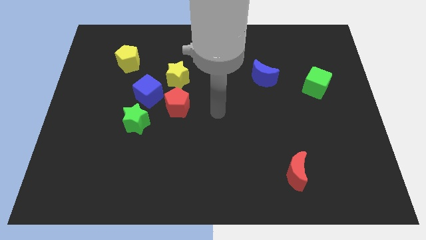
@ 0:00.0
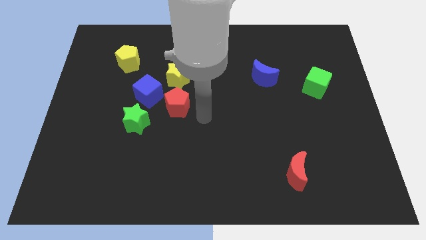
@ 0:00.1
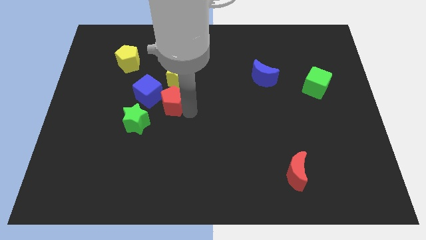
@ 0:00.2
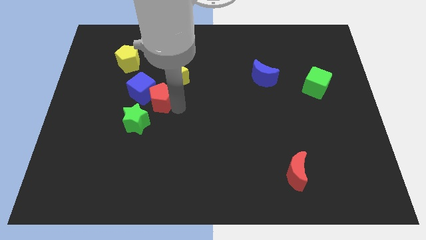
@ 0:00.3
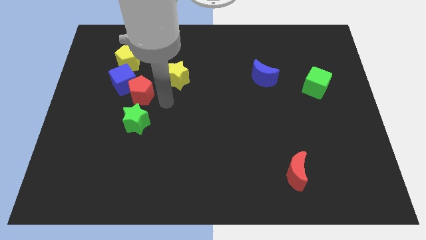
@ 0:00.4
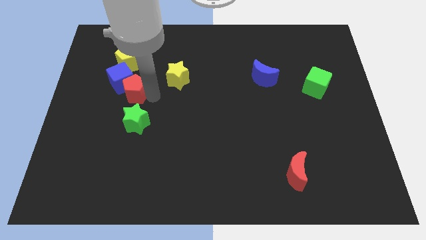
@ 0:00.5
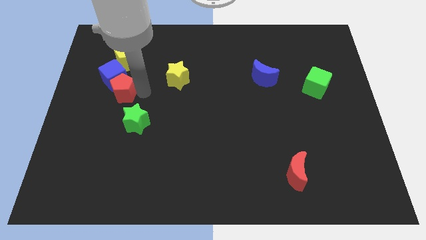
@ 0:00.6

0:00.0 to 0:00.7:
separate the blue cube from the clump

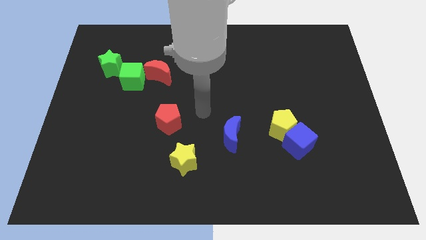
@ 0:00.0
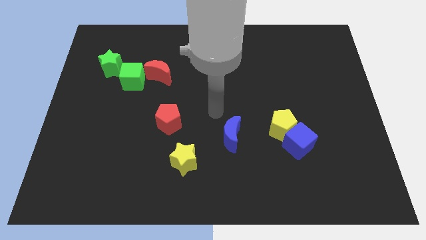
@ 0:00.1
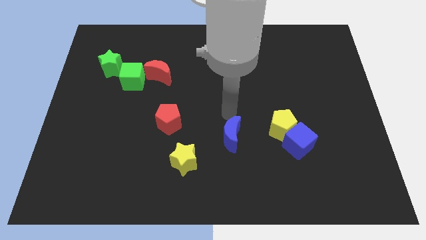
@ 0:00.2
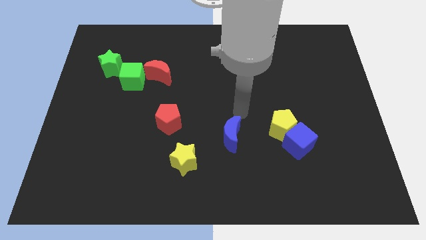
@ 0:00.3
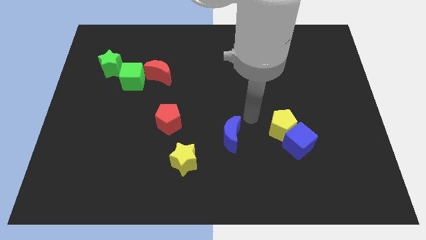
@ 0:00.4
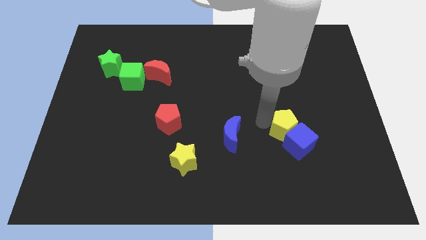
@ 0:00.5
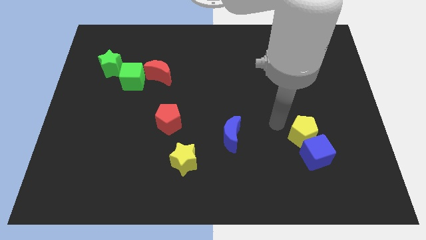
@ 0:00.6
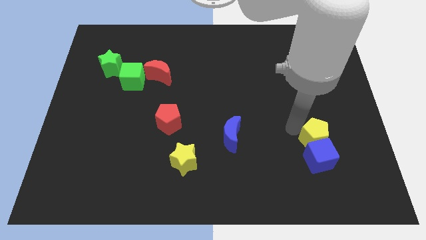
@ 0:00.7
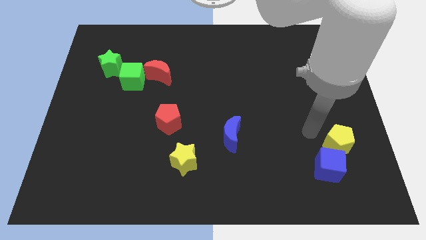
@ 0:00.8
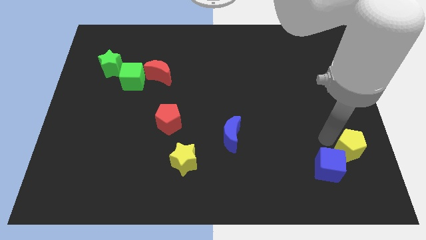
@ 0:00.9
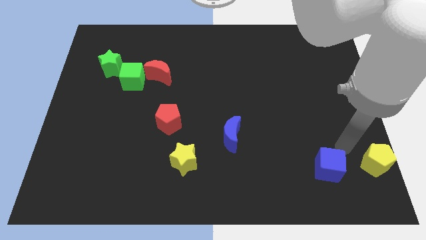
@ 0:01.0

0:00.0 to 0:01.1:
move the blue cube away from the yellow pentagon

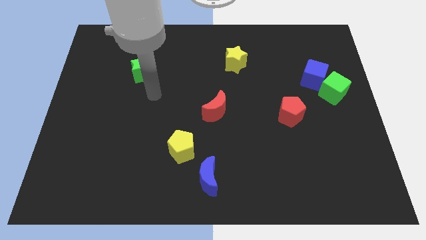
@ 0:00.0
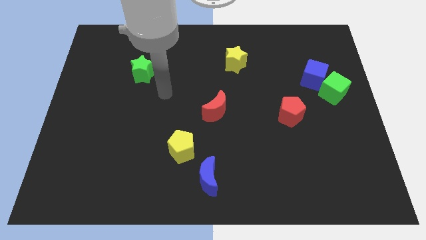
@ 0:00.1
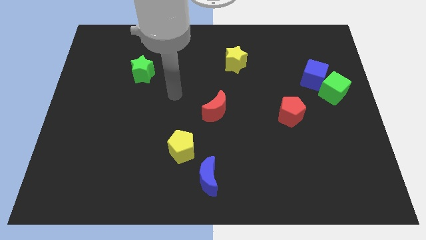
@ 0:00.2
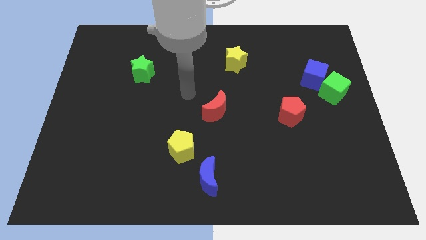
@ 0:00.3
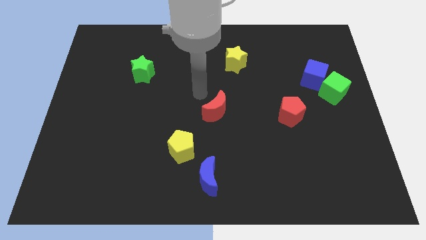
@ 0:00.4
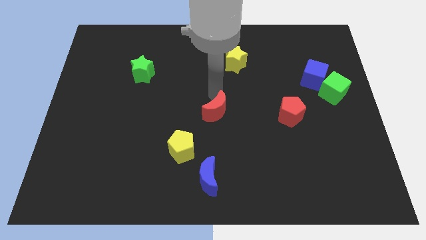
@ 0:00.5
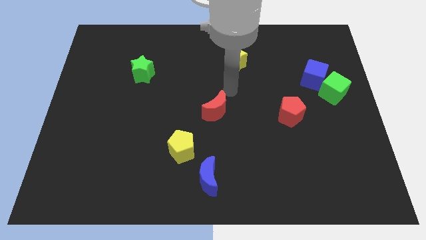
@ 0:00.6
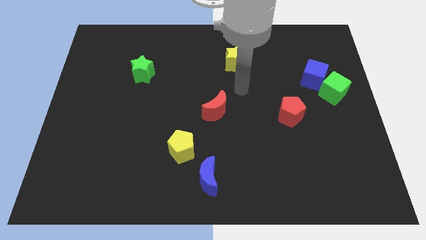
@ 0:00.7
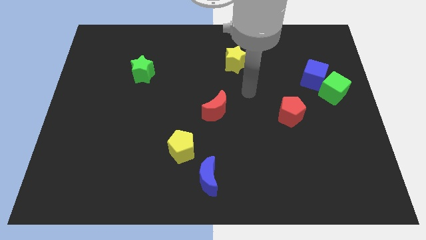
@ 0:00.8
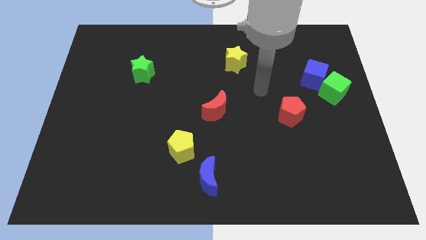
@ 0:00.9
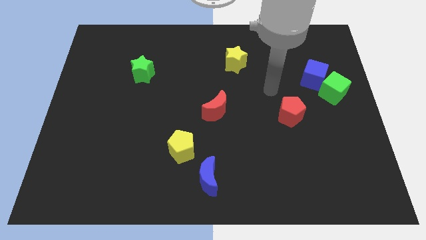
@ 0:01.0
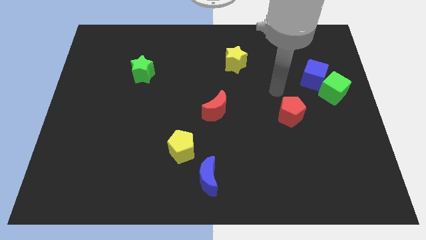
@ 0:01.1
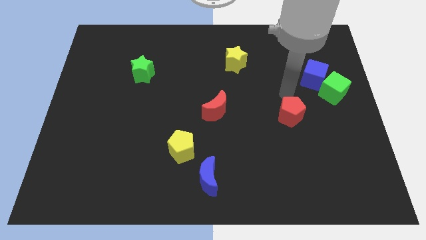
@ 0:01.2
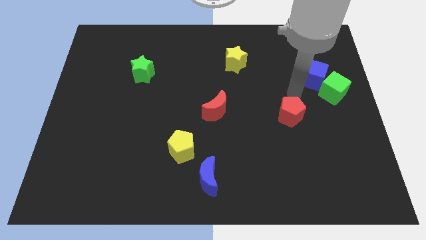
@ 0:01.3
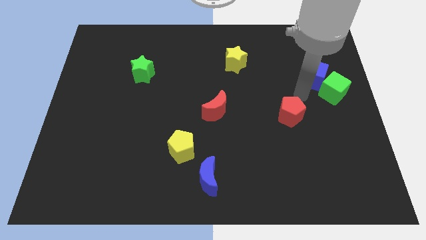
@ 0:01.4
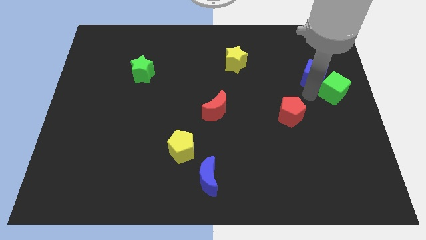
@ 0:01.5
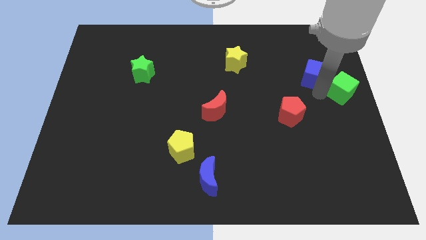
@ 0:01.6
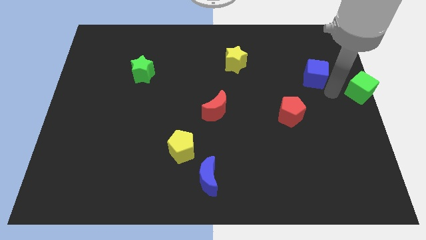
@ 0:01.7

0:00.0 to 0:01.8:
move the blue cube away from the green cube

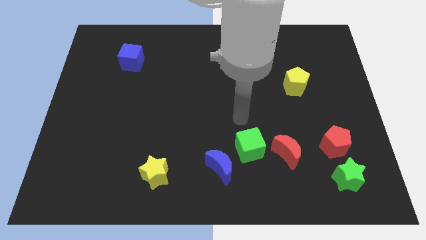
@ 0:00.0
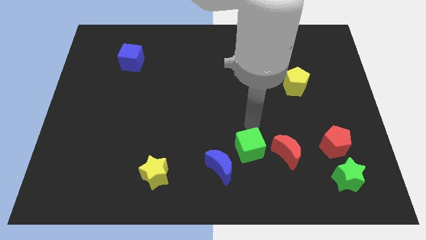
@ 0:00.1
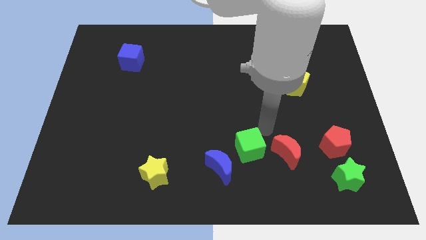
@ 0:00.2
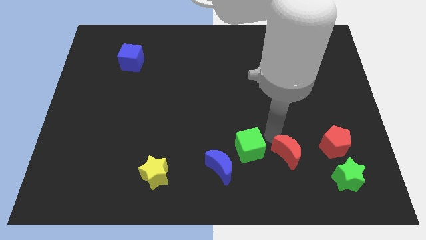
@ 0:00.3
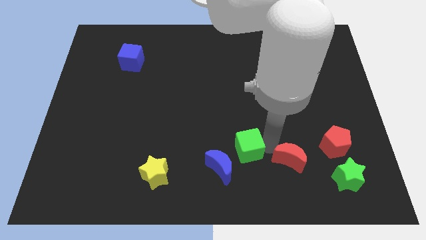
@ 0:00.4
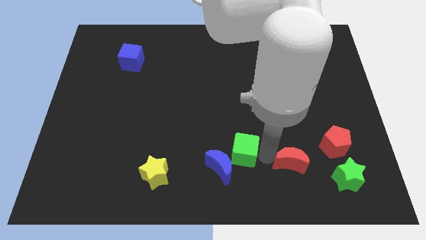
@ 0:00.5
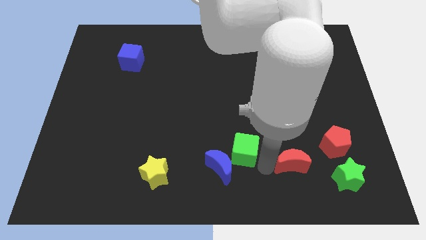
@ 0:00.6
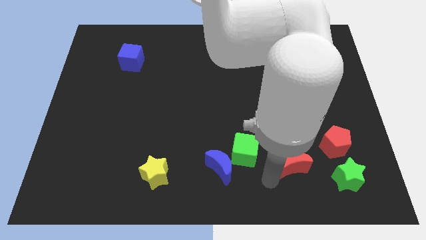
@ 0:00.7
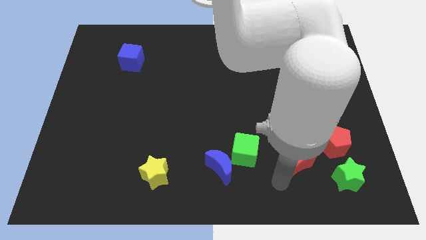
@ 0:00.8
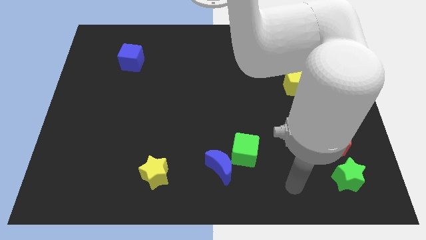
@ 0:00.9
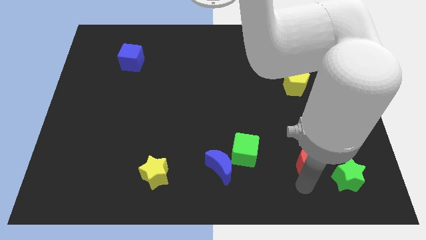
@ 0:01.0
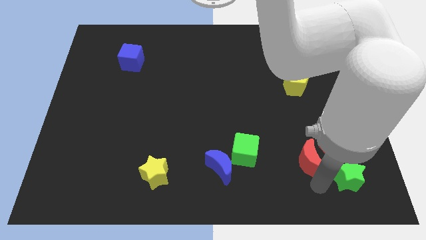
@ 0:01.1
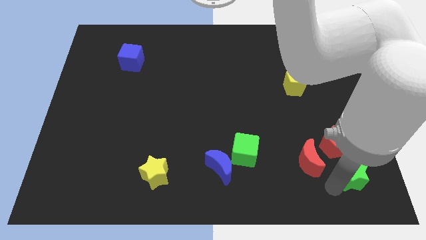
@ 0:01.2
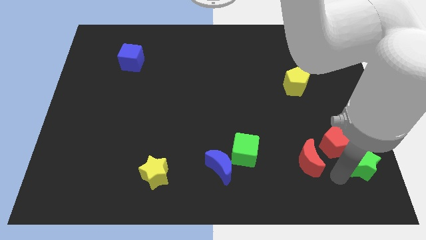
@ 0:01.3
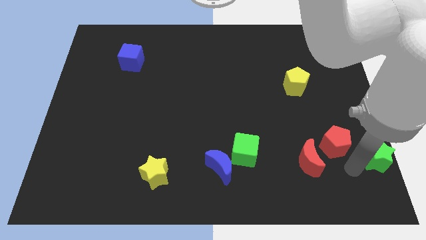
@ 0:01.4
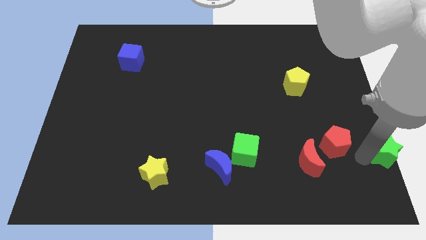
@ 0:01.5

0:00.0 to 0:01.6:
move the red pentagon away from the green star

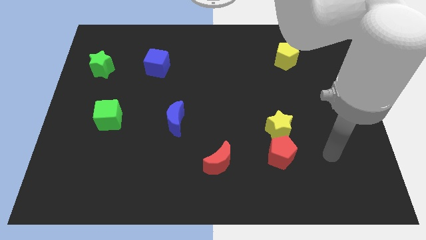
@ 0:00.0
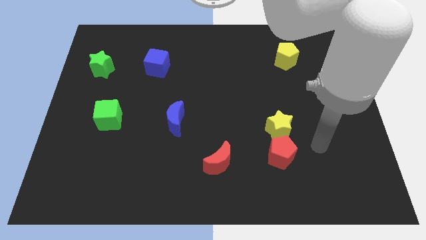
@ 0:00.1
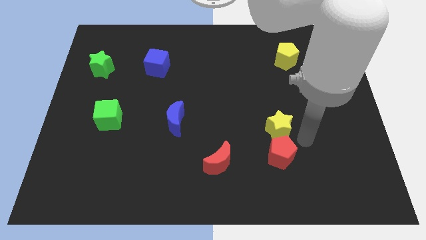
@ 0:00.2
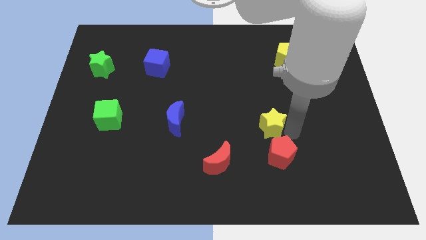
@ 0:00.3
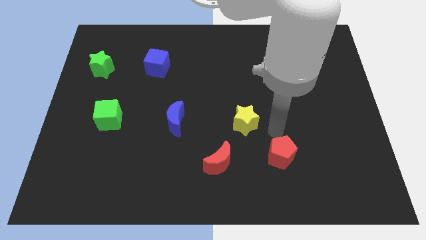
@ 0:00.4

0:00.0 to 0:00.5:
separate the red pentagon from the yellow star

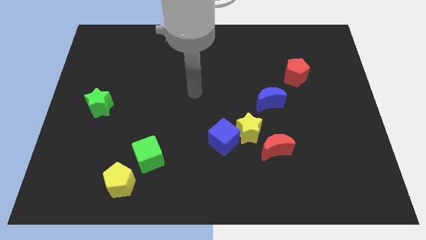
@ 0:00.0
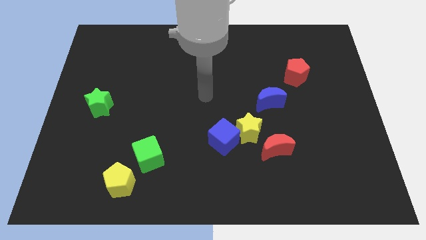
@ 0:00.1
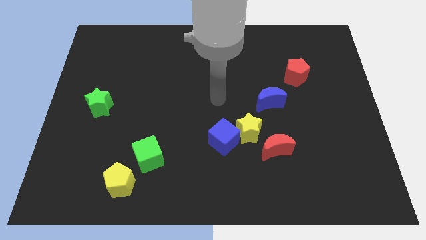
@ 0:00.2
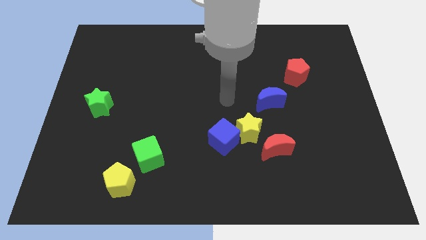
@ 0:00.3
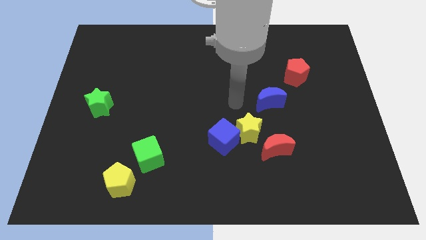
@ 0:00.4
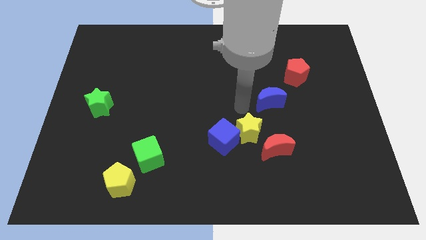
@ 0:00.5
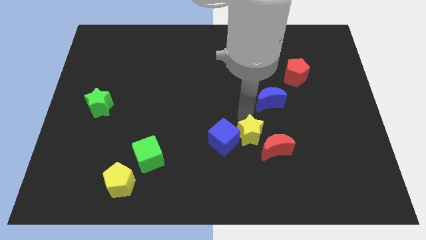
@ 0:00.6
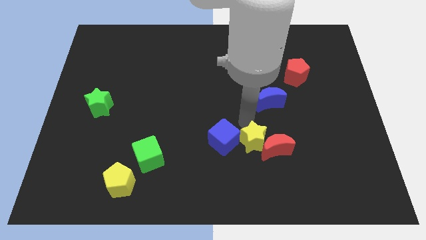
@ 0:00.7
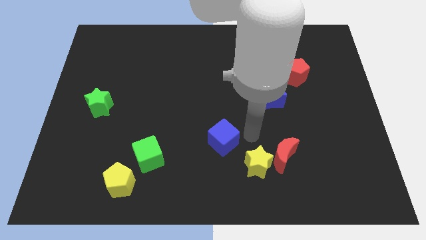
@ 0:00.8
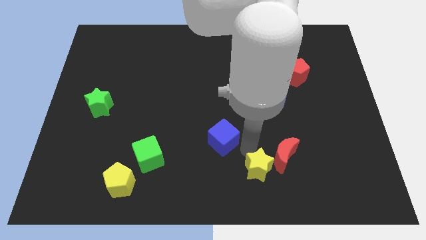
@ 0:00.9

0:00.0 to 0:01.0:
pull the blue cube apart from the yellow star

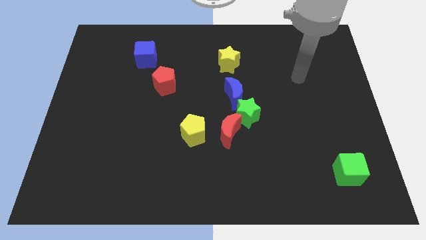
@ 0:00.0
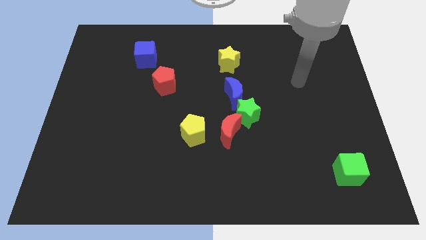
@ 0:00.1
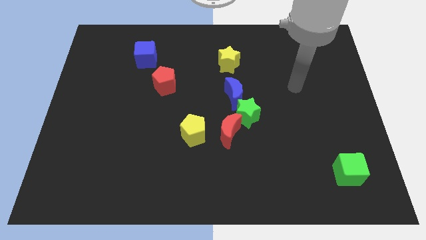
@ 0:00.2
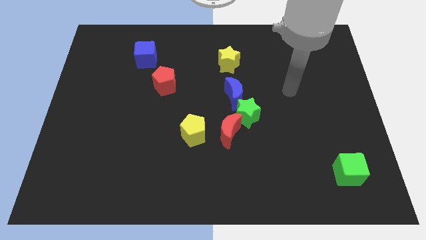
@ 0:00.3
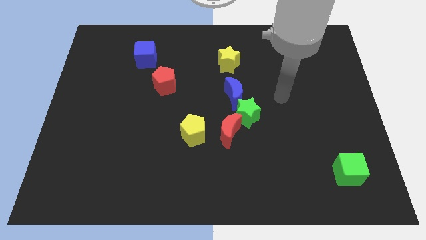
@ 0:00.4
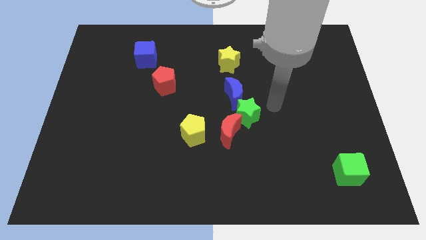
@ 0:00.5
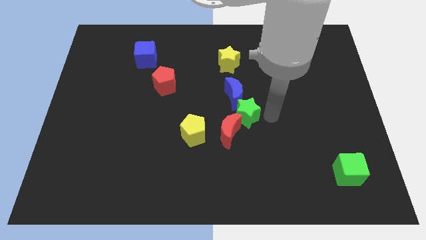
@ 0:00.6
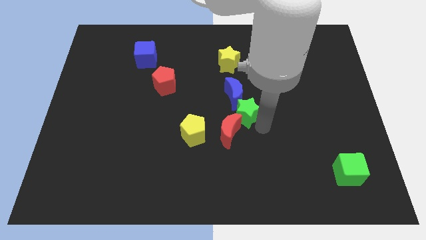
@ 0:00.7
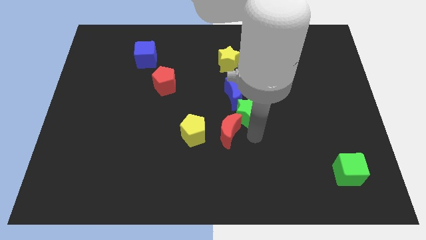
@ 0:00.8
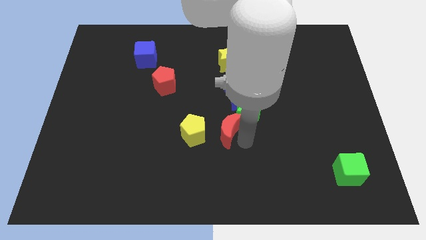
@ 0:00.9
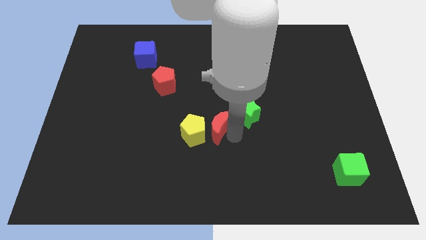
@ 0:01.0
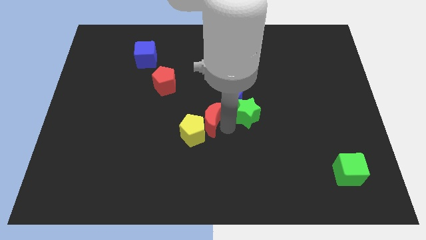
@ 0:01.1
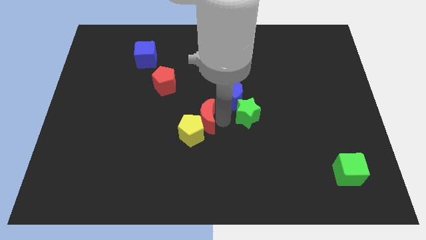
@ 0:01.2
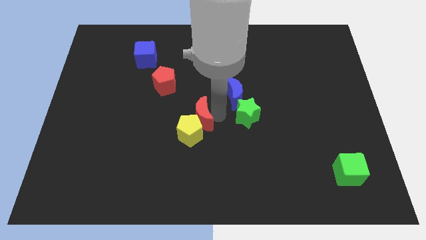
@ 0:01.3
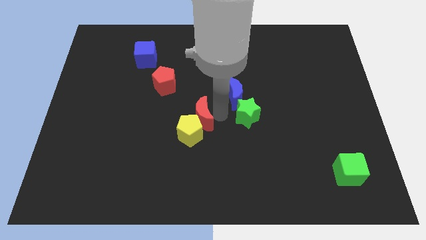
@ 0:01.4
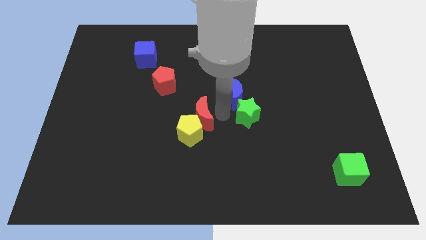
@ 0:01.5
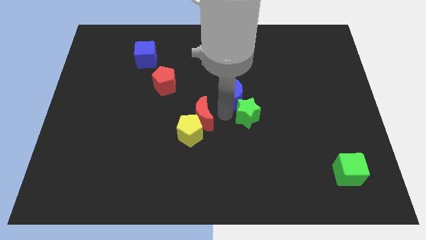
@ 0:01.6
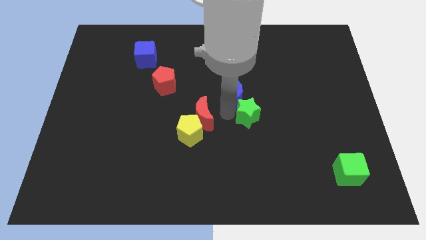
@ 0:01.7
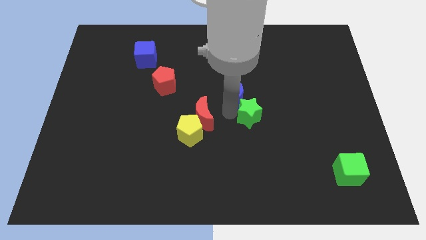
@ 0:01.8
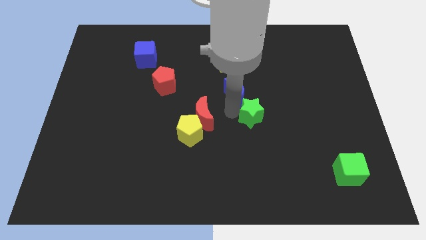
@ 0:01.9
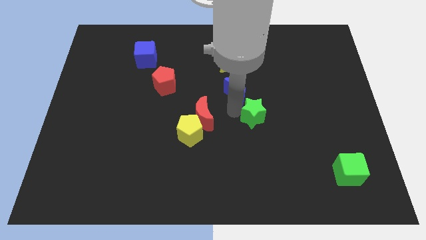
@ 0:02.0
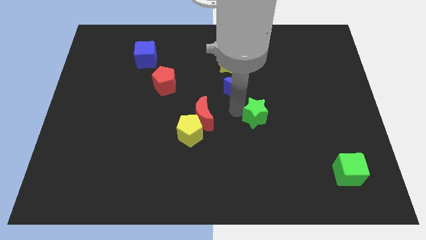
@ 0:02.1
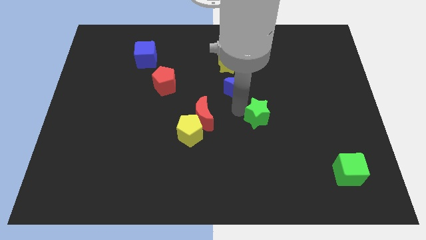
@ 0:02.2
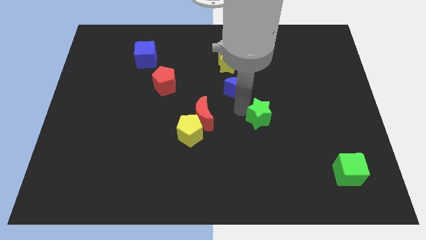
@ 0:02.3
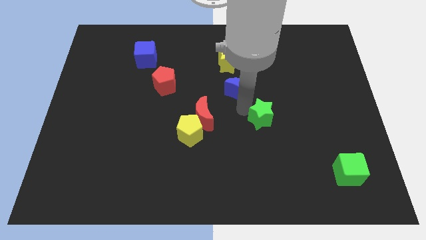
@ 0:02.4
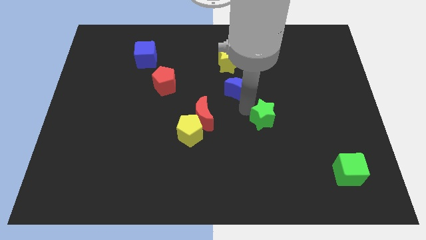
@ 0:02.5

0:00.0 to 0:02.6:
pull the green star apart from the red moon and blue moon
